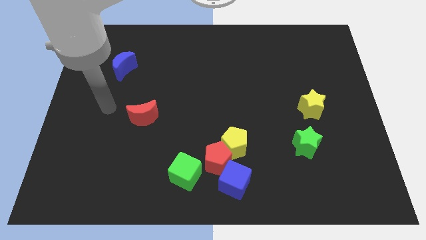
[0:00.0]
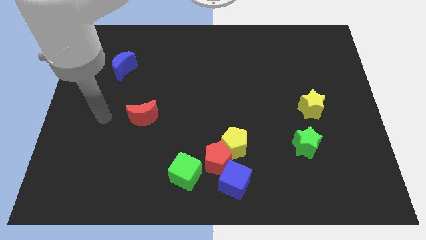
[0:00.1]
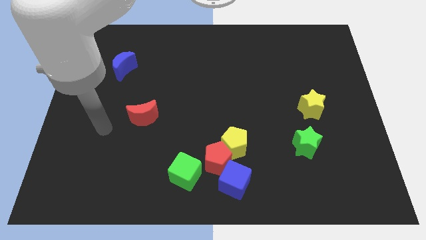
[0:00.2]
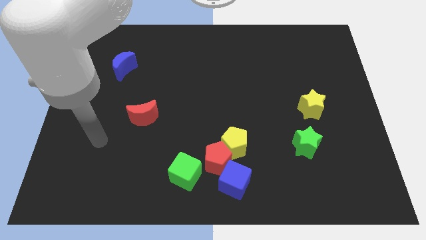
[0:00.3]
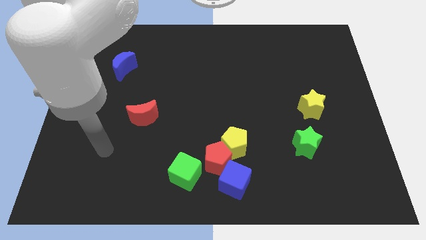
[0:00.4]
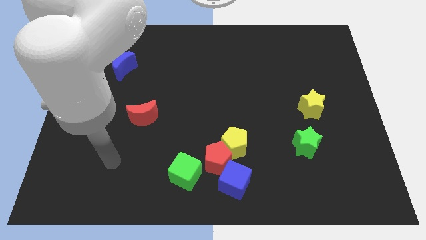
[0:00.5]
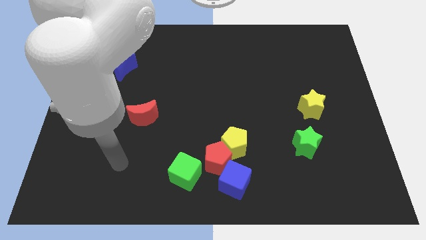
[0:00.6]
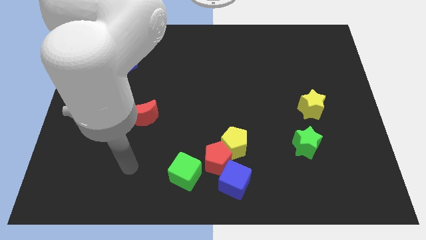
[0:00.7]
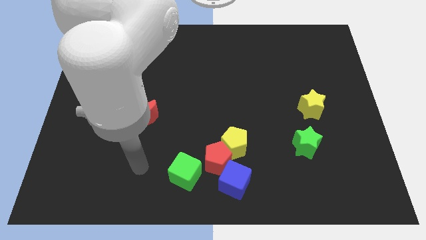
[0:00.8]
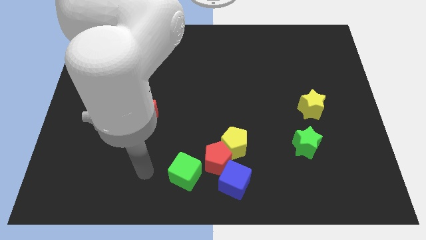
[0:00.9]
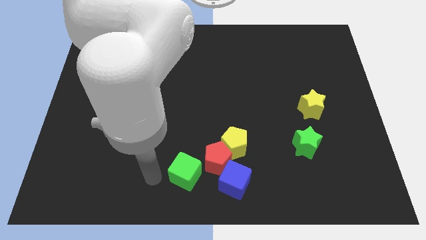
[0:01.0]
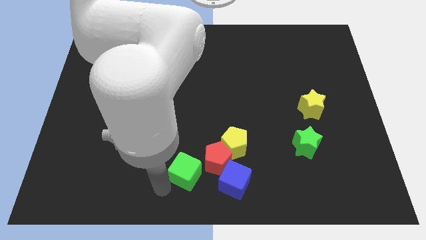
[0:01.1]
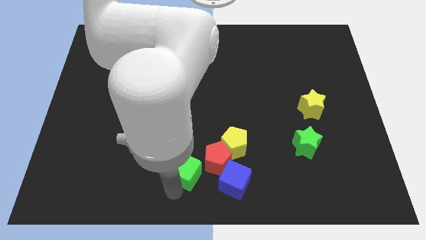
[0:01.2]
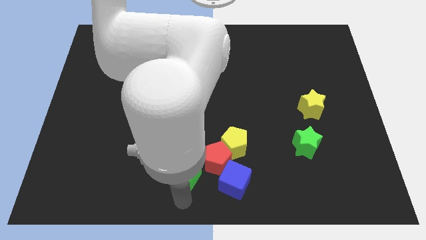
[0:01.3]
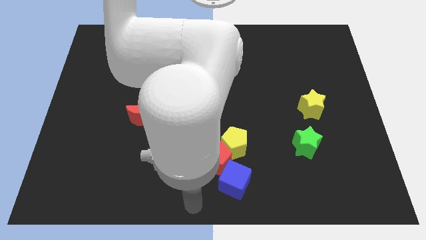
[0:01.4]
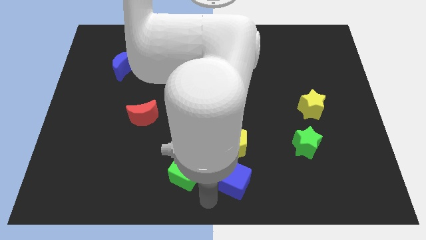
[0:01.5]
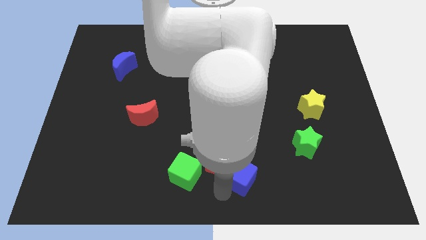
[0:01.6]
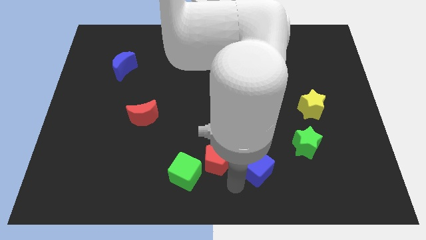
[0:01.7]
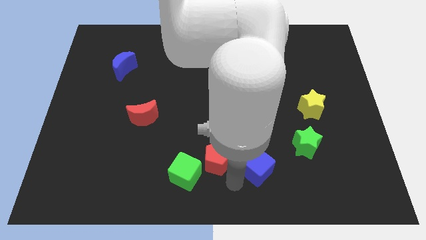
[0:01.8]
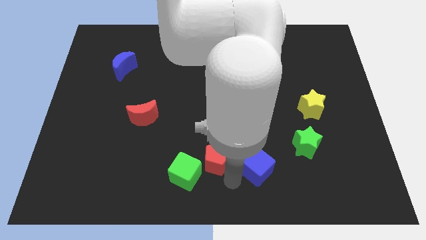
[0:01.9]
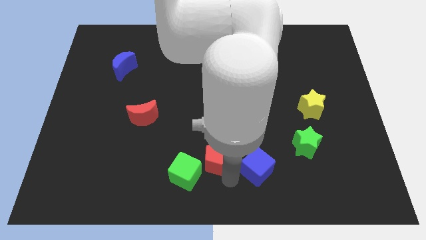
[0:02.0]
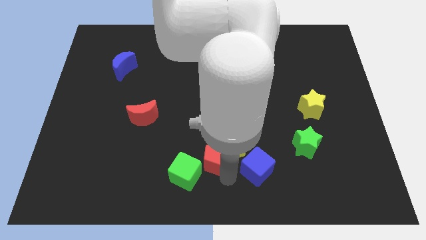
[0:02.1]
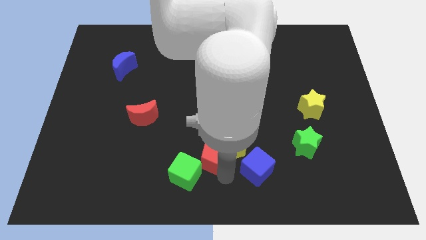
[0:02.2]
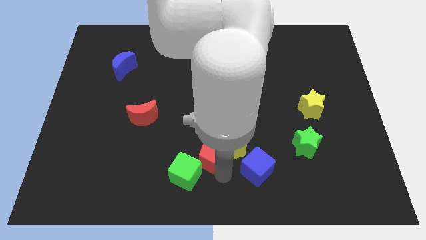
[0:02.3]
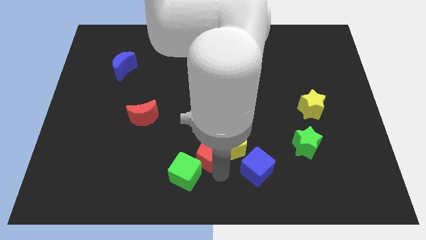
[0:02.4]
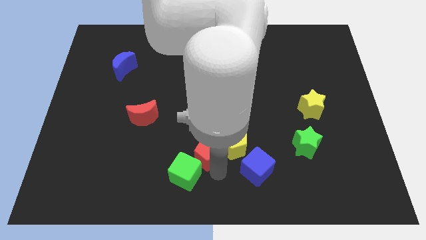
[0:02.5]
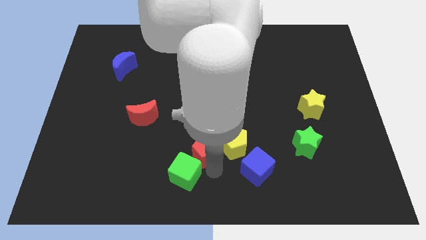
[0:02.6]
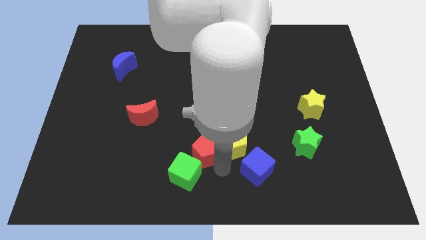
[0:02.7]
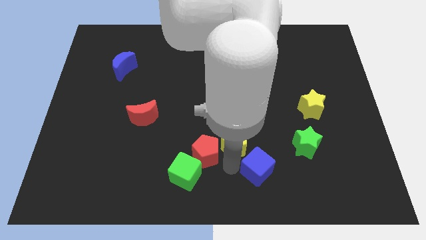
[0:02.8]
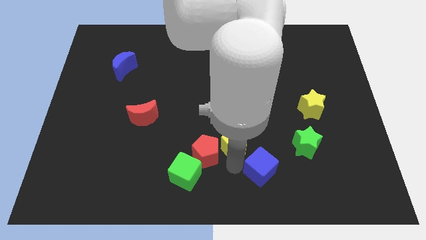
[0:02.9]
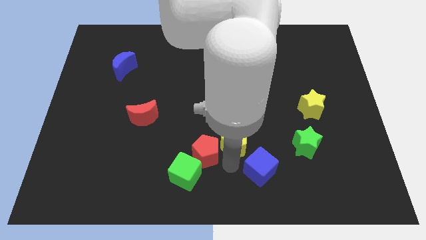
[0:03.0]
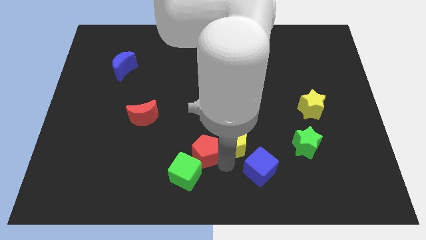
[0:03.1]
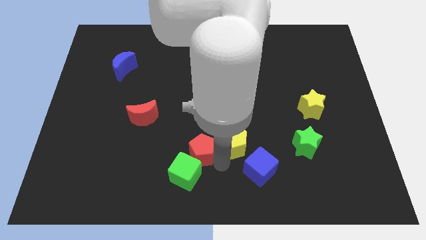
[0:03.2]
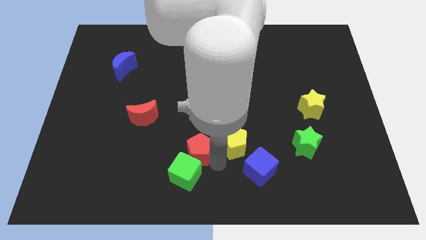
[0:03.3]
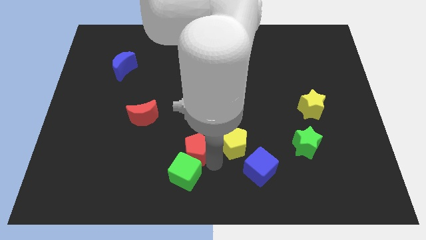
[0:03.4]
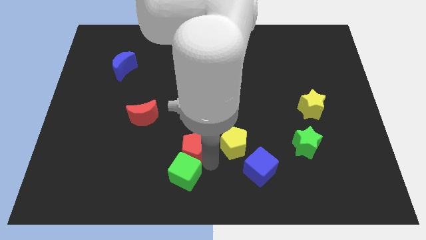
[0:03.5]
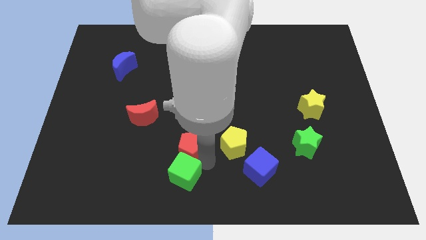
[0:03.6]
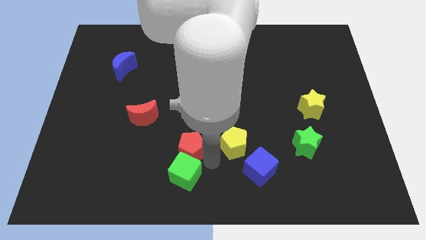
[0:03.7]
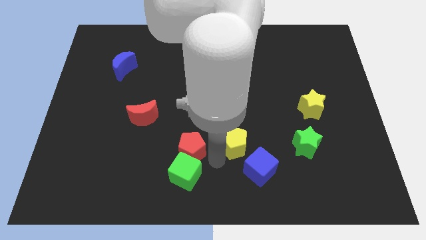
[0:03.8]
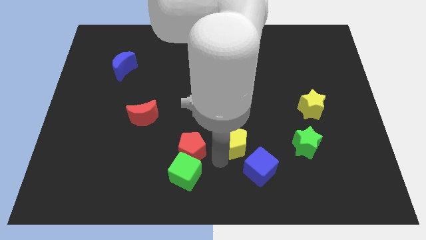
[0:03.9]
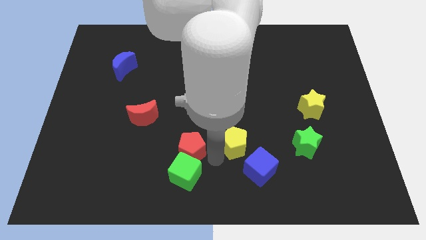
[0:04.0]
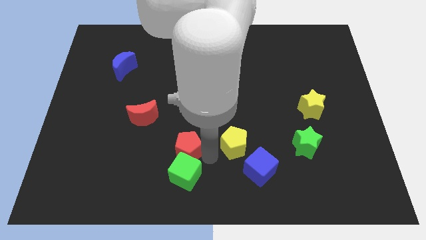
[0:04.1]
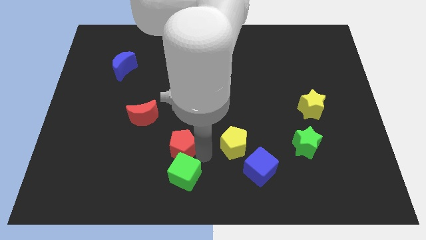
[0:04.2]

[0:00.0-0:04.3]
pull the red pentagon apart from the yellow pentagon, blue cube, and green cube

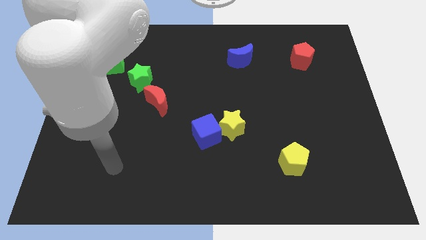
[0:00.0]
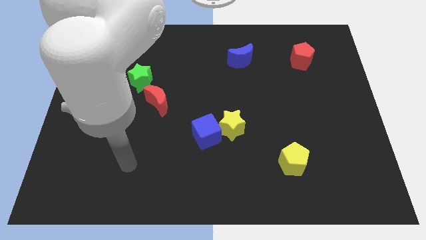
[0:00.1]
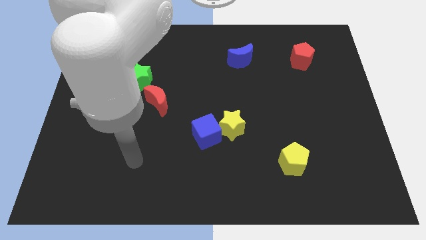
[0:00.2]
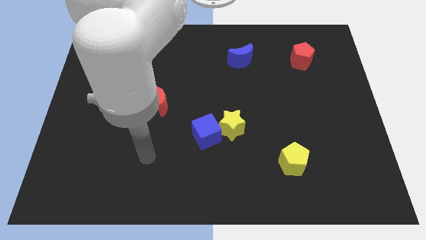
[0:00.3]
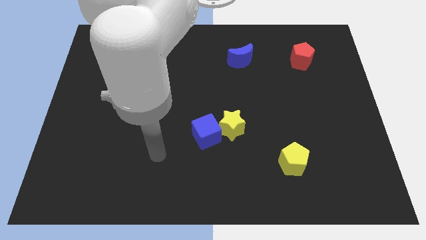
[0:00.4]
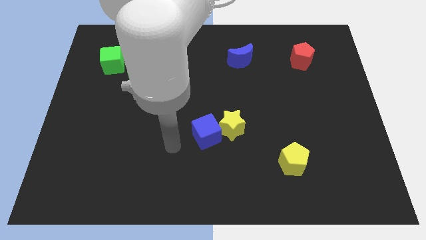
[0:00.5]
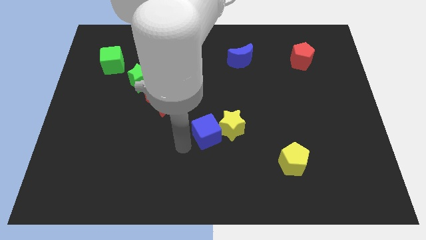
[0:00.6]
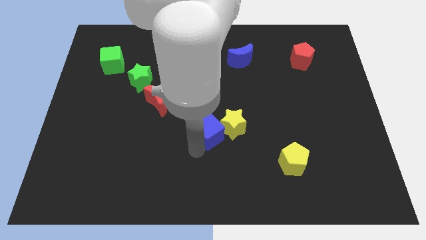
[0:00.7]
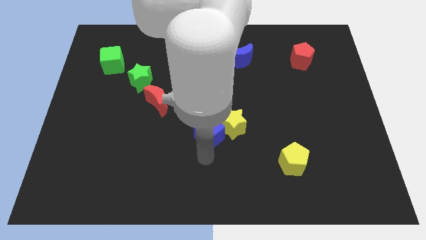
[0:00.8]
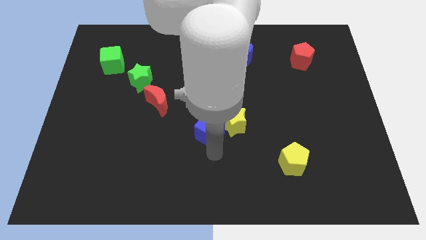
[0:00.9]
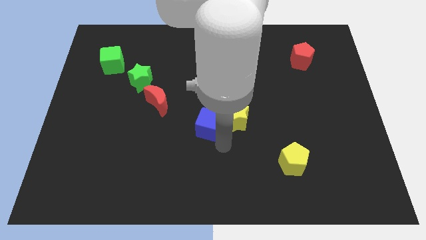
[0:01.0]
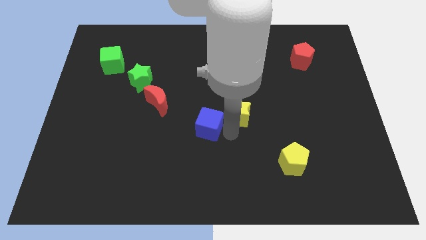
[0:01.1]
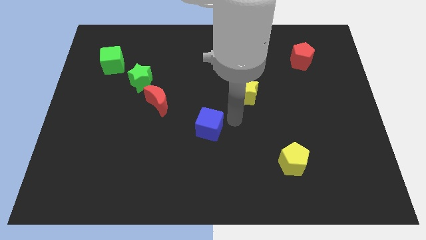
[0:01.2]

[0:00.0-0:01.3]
pull the blue cube apart from the yellow star

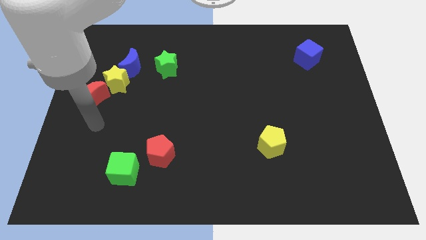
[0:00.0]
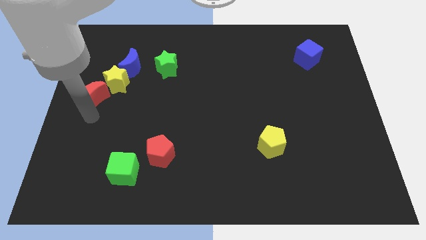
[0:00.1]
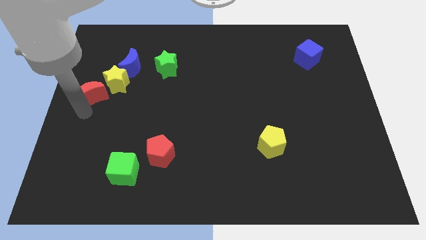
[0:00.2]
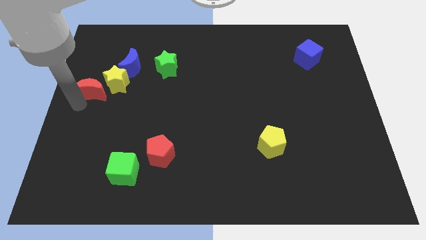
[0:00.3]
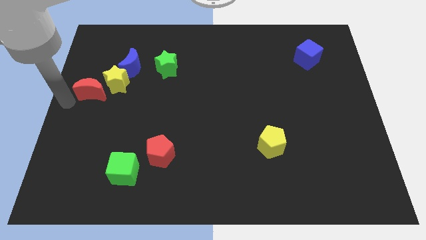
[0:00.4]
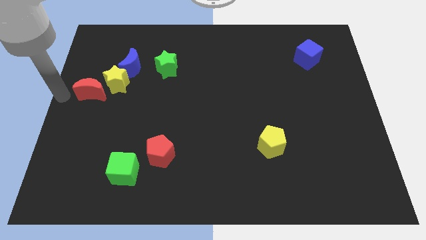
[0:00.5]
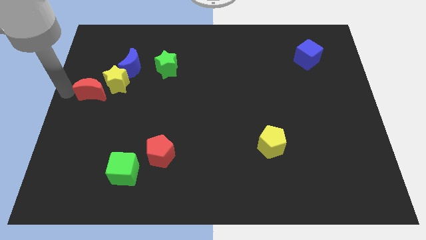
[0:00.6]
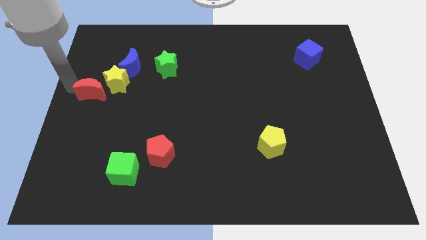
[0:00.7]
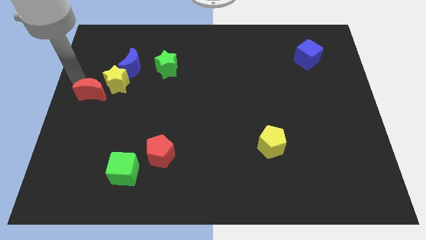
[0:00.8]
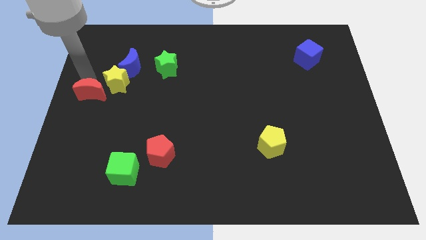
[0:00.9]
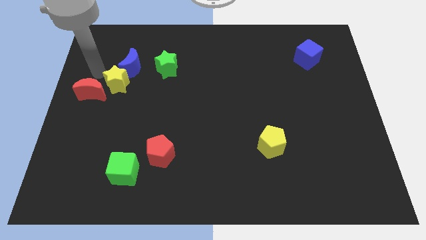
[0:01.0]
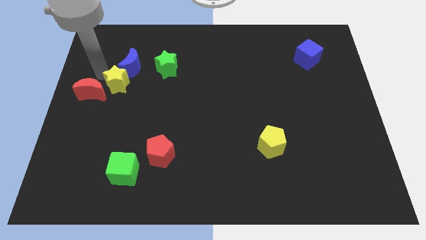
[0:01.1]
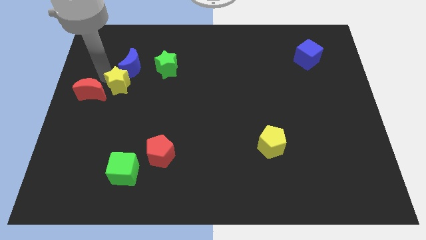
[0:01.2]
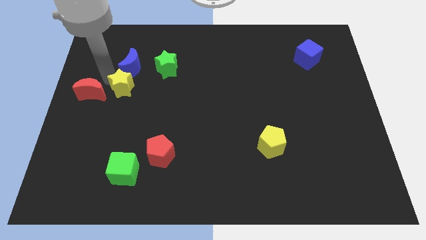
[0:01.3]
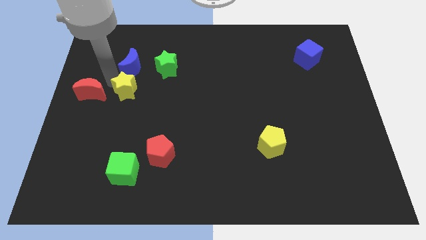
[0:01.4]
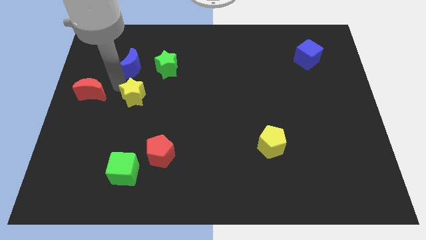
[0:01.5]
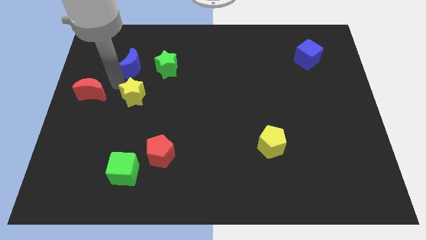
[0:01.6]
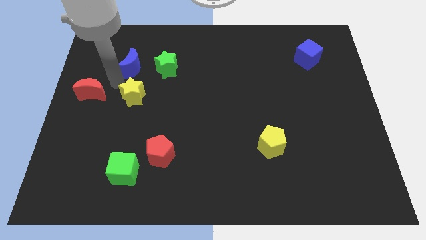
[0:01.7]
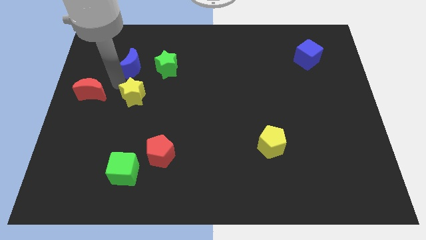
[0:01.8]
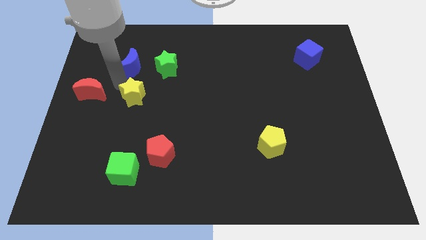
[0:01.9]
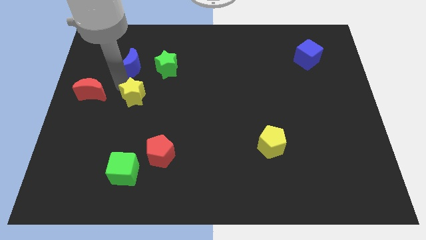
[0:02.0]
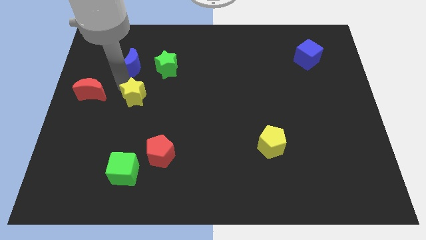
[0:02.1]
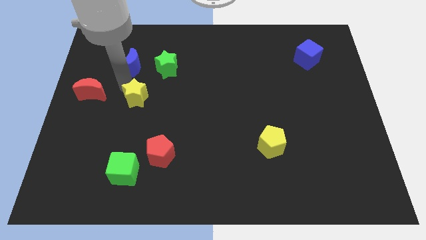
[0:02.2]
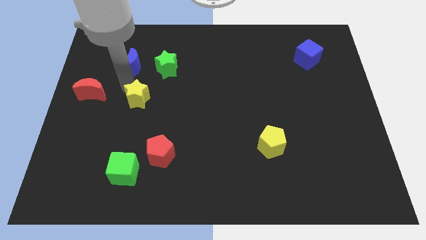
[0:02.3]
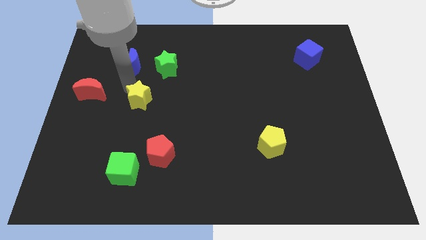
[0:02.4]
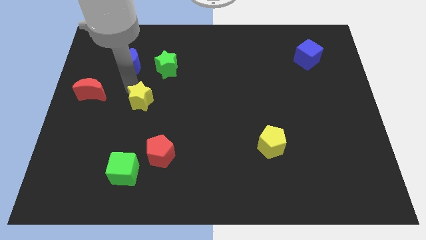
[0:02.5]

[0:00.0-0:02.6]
separate the yellow star from the blue moon and red moon

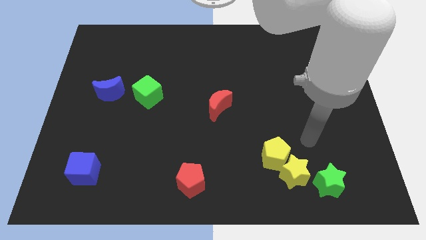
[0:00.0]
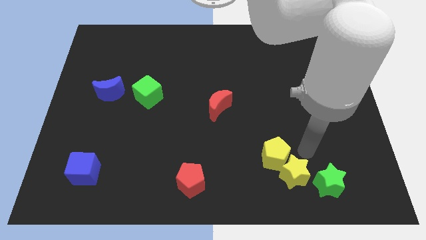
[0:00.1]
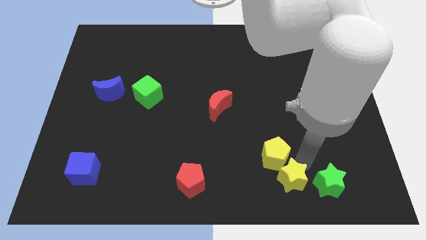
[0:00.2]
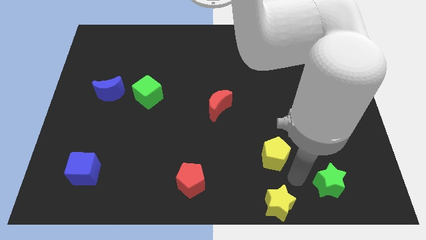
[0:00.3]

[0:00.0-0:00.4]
move the yellow pentagon away from the yellow star

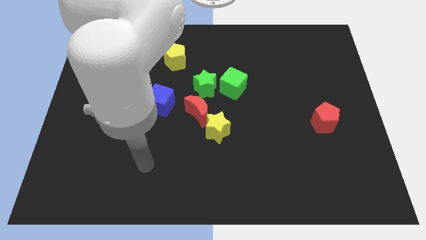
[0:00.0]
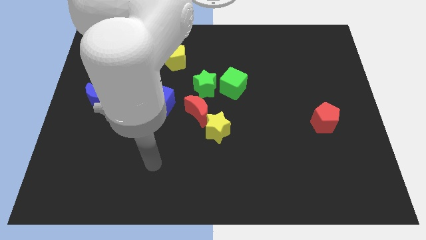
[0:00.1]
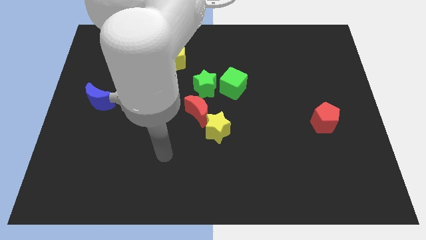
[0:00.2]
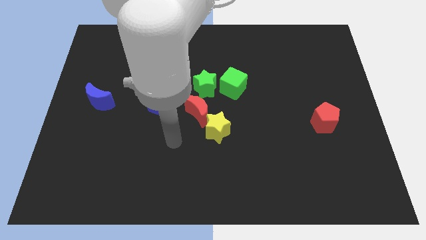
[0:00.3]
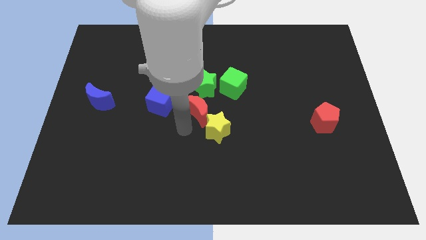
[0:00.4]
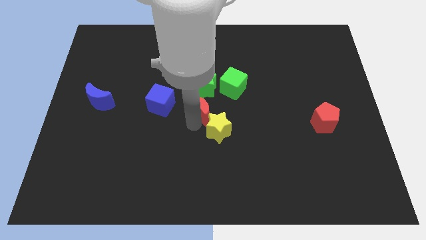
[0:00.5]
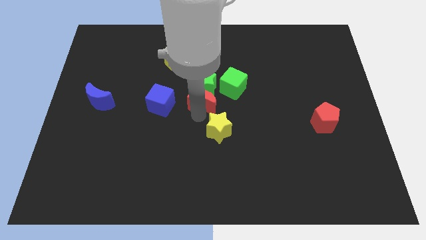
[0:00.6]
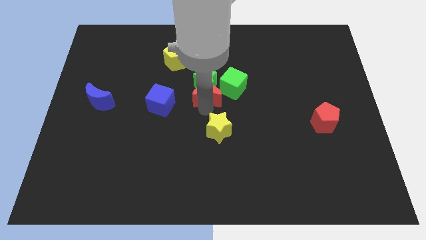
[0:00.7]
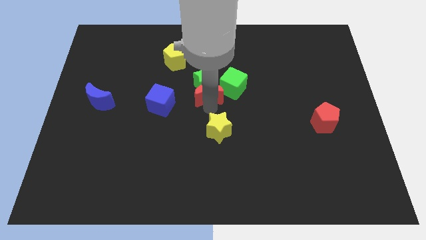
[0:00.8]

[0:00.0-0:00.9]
pull the yellow star apart from the red moon
